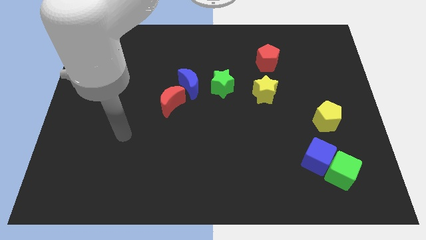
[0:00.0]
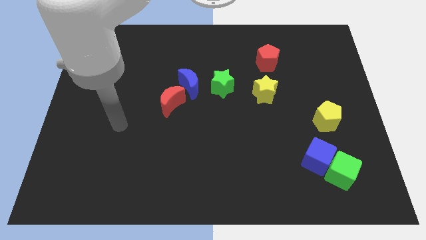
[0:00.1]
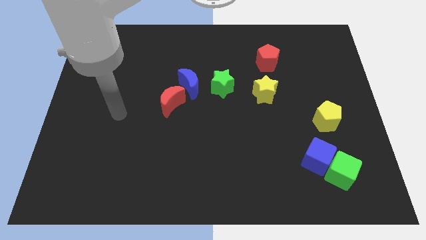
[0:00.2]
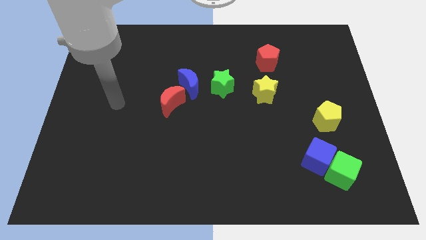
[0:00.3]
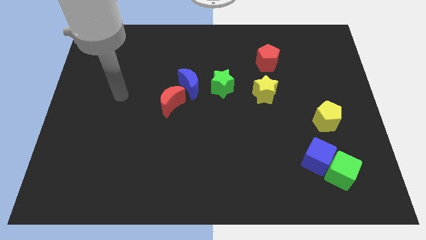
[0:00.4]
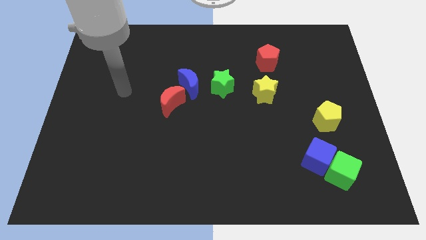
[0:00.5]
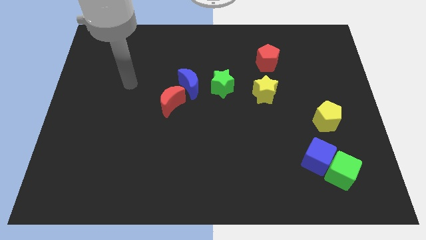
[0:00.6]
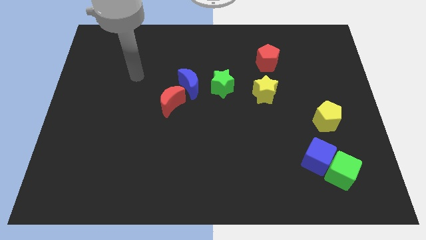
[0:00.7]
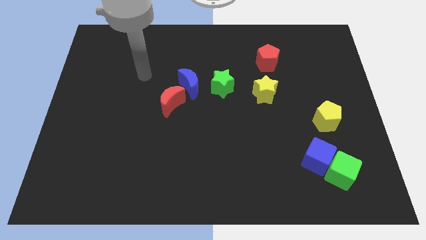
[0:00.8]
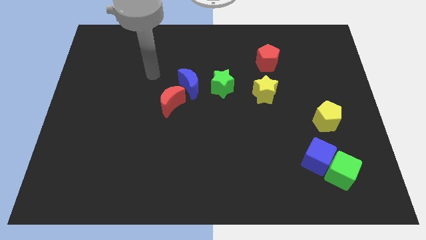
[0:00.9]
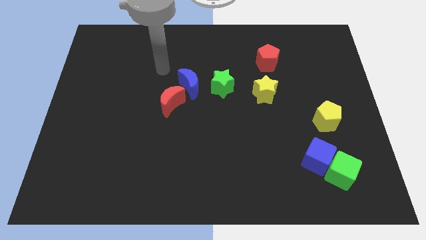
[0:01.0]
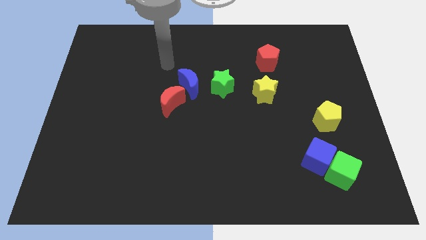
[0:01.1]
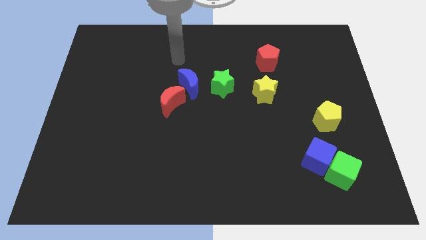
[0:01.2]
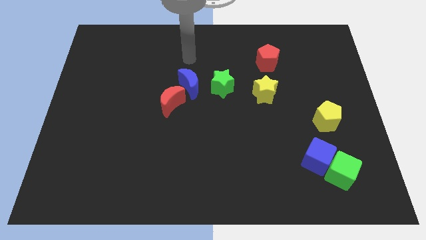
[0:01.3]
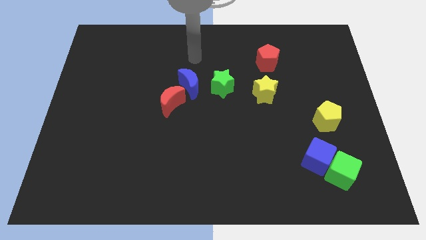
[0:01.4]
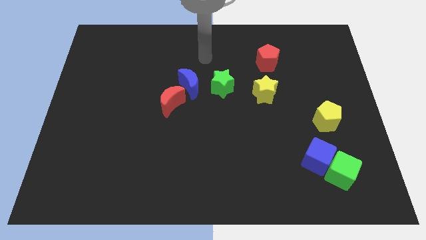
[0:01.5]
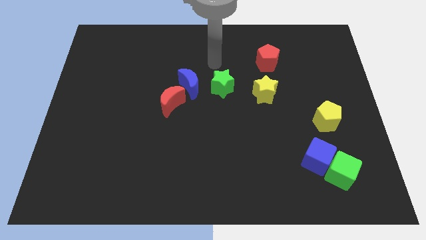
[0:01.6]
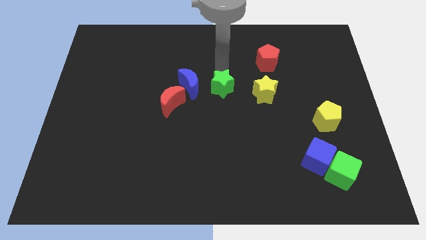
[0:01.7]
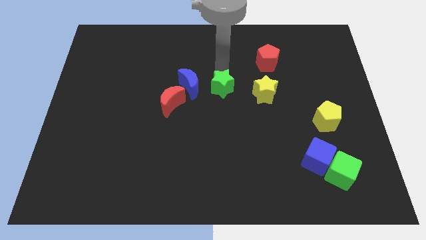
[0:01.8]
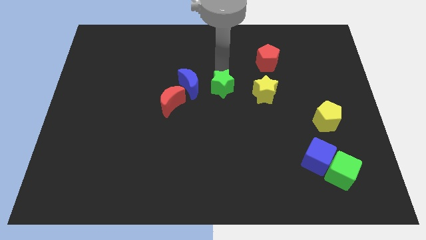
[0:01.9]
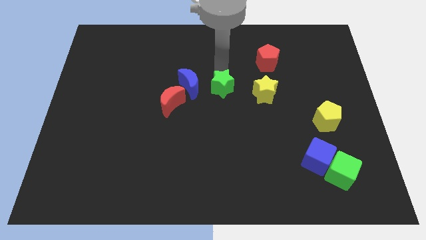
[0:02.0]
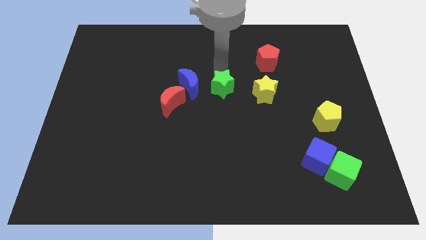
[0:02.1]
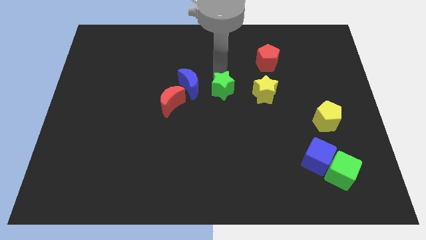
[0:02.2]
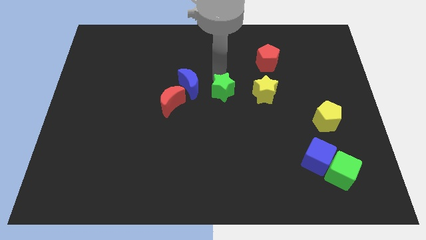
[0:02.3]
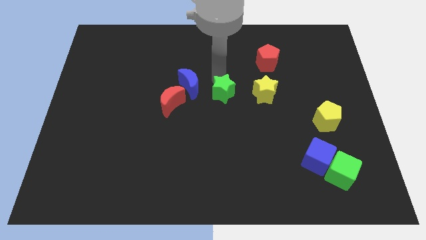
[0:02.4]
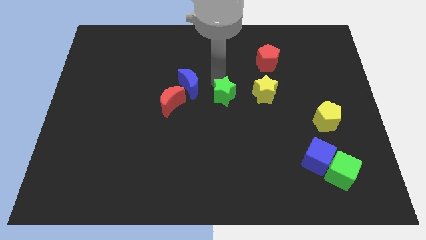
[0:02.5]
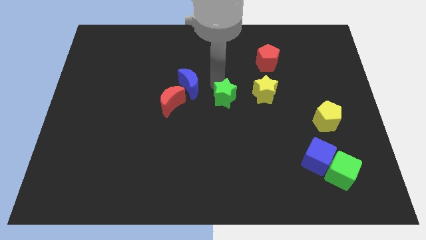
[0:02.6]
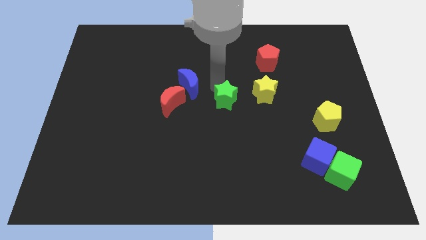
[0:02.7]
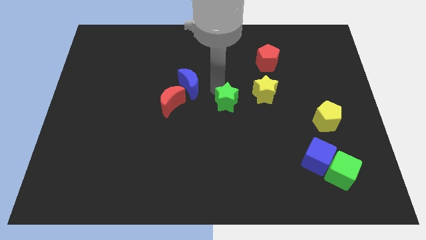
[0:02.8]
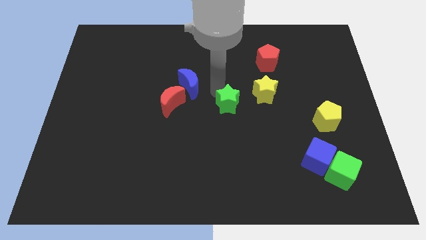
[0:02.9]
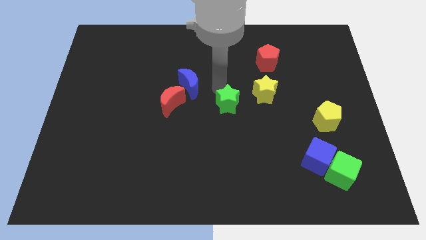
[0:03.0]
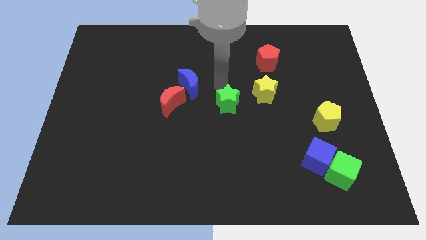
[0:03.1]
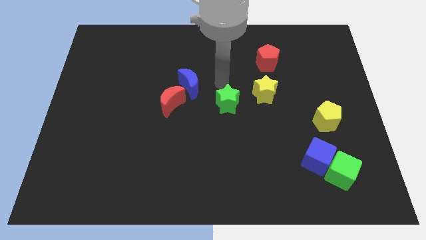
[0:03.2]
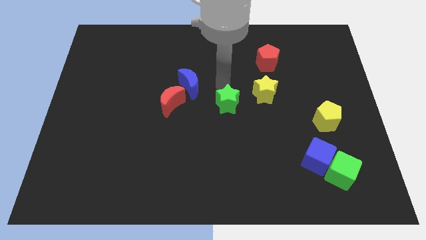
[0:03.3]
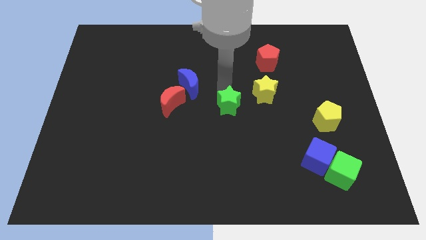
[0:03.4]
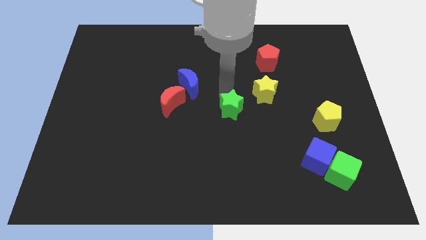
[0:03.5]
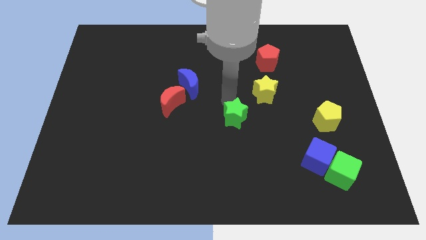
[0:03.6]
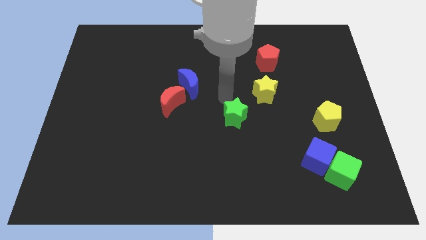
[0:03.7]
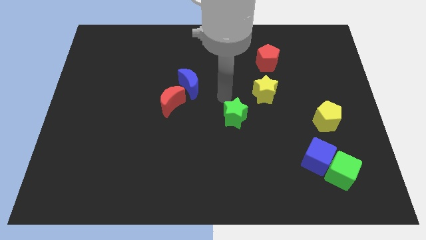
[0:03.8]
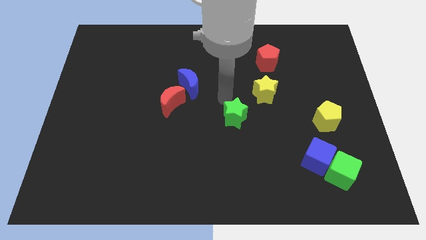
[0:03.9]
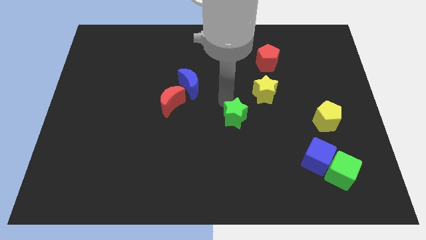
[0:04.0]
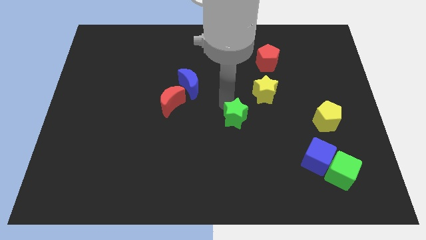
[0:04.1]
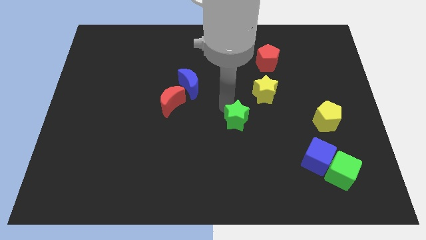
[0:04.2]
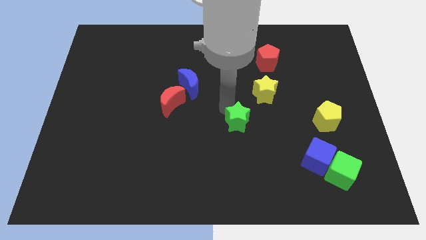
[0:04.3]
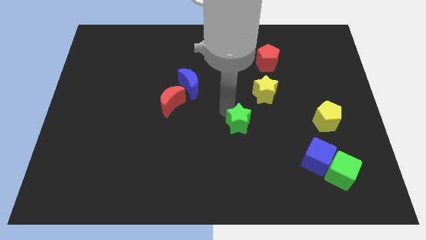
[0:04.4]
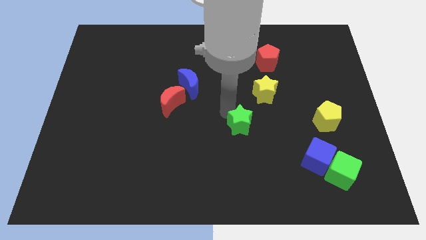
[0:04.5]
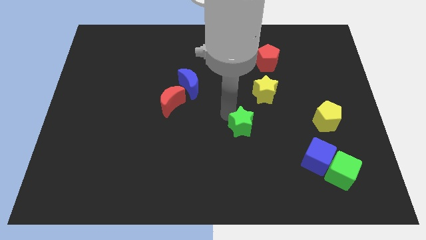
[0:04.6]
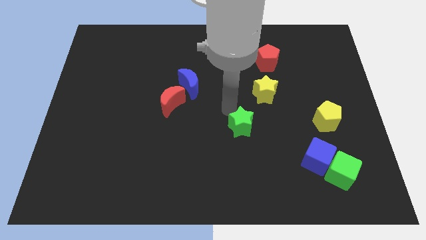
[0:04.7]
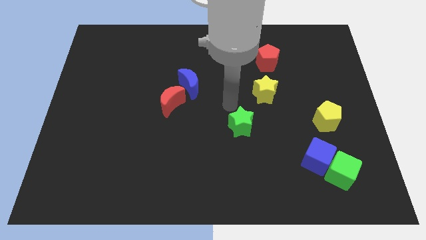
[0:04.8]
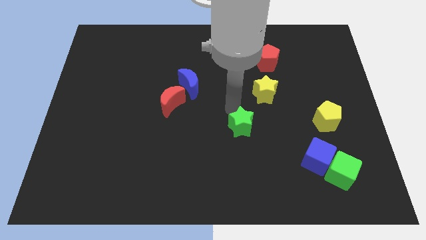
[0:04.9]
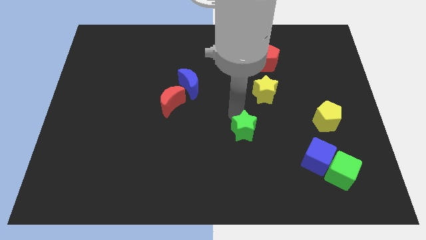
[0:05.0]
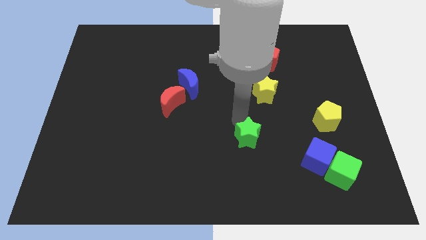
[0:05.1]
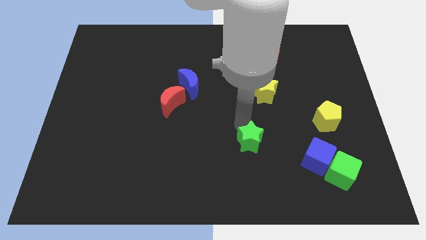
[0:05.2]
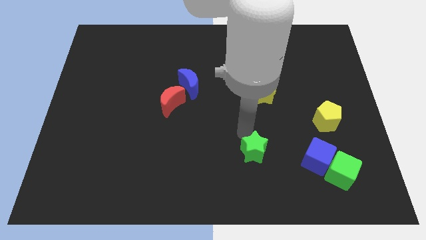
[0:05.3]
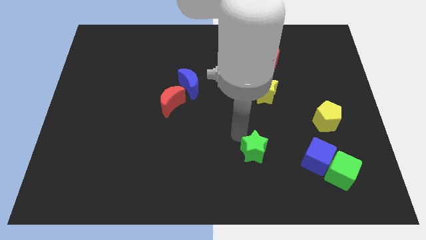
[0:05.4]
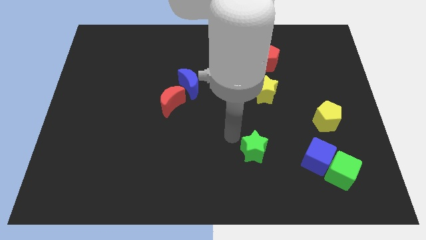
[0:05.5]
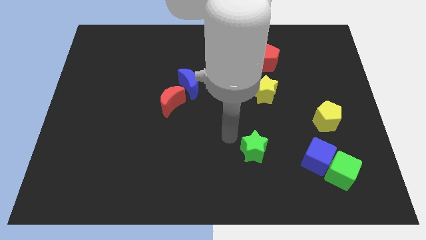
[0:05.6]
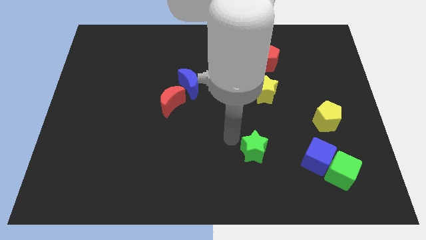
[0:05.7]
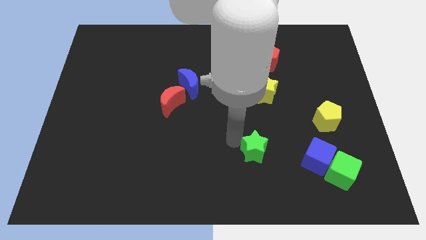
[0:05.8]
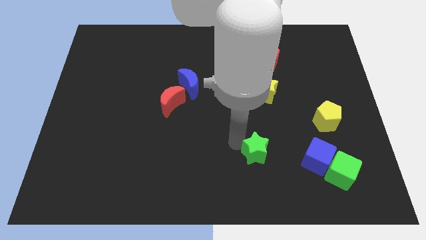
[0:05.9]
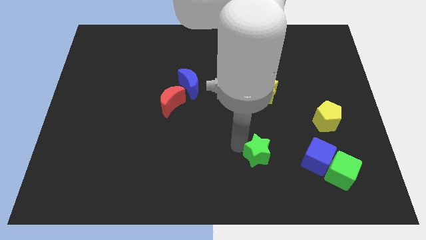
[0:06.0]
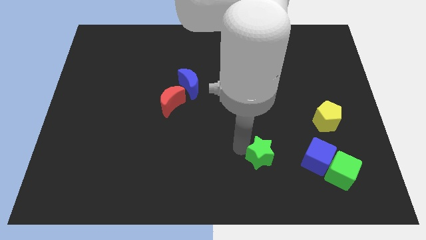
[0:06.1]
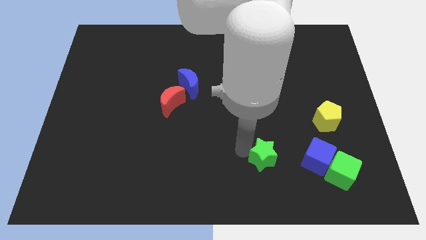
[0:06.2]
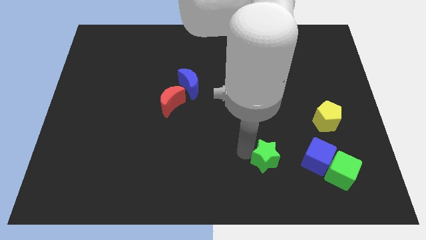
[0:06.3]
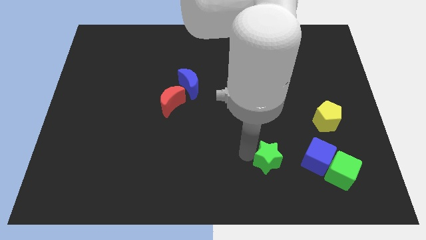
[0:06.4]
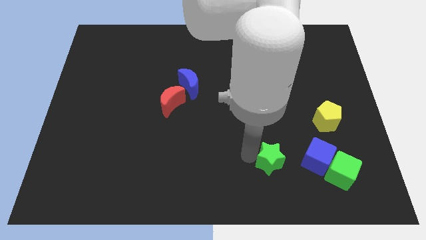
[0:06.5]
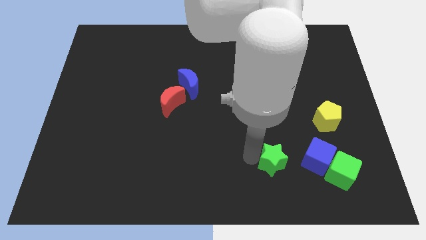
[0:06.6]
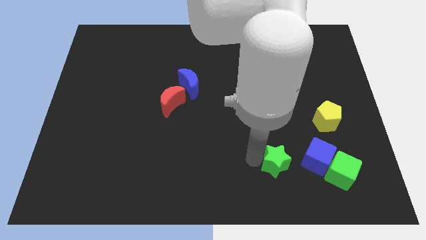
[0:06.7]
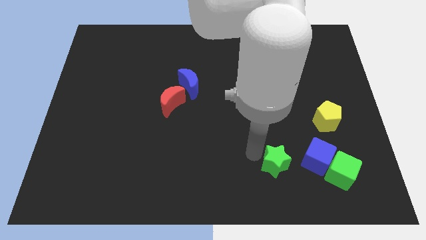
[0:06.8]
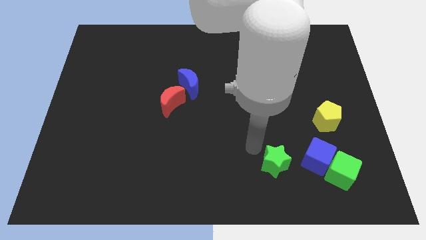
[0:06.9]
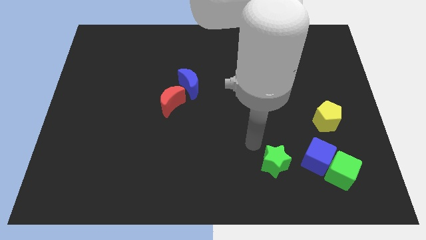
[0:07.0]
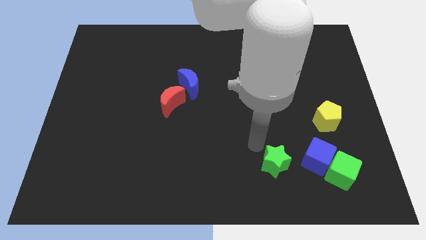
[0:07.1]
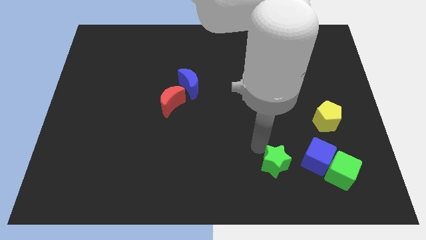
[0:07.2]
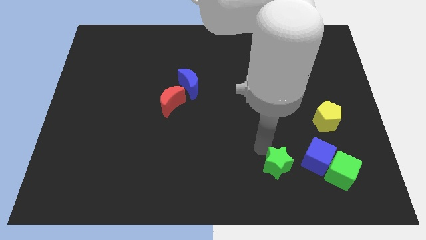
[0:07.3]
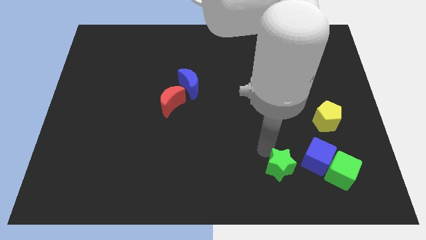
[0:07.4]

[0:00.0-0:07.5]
slide the green star diagonally down and to the left of the blue cube
